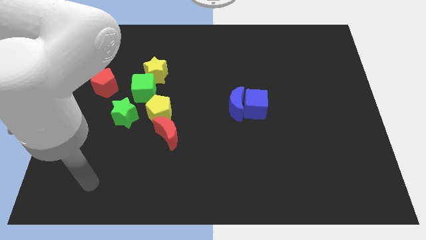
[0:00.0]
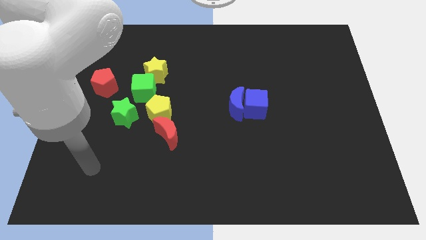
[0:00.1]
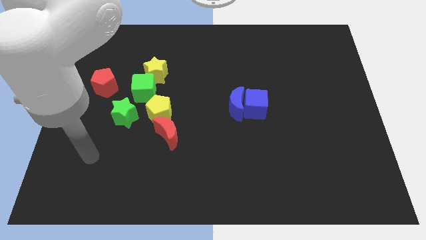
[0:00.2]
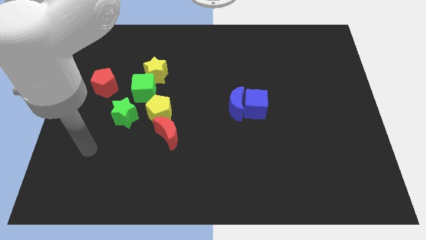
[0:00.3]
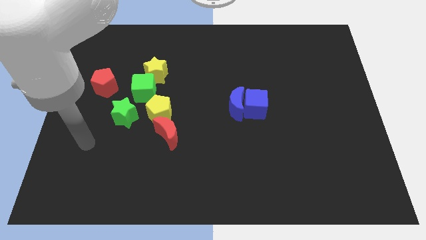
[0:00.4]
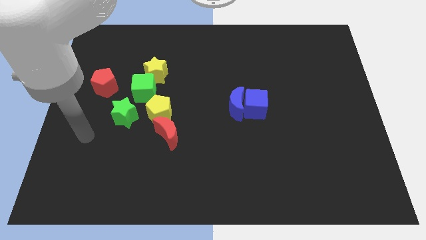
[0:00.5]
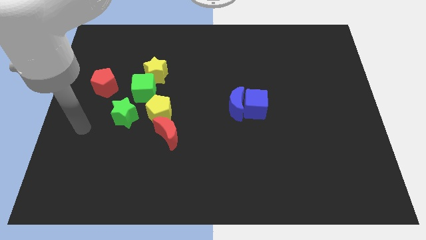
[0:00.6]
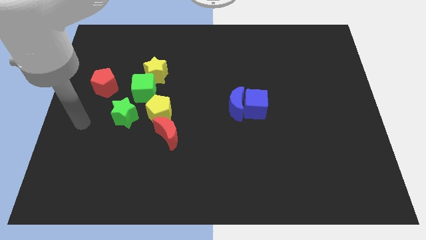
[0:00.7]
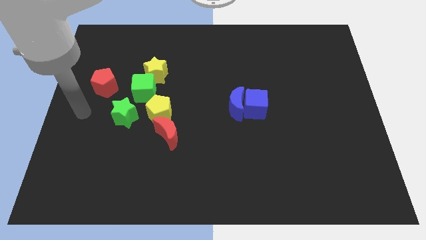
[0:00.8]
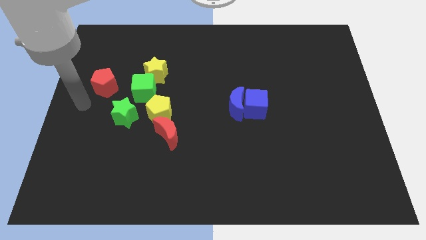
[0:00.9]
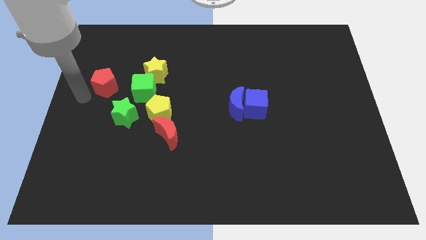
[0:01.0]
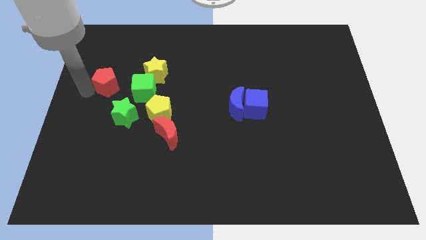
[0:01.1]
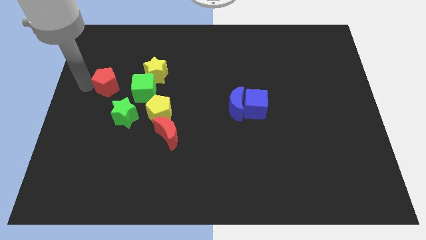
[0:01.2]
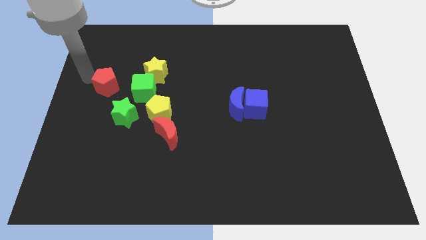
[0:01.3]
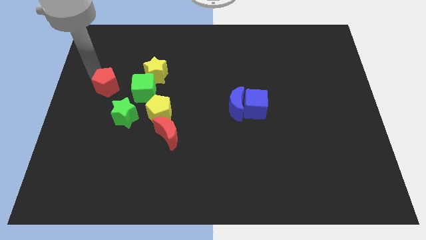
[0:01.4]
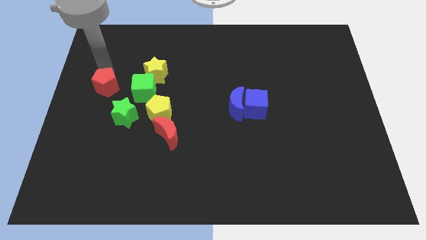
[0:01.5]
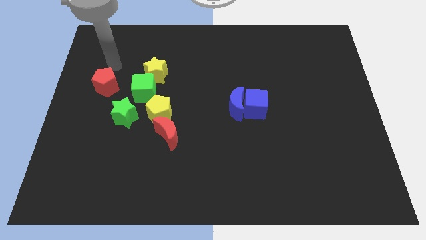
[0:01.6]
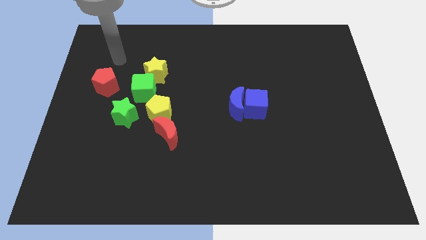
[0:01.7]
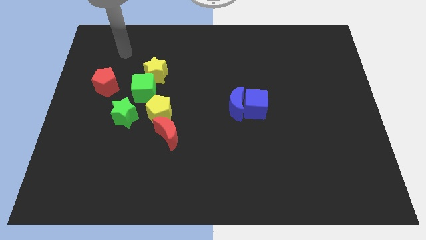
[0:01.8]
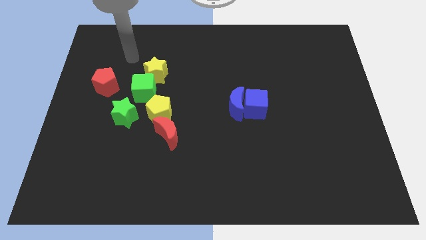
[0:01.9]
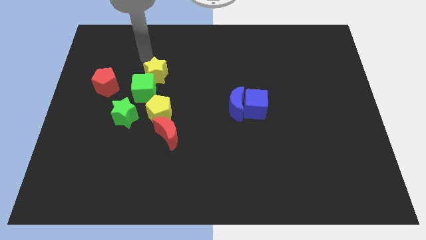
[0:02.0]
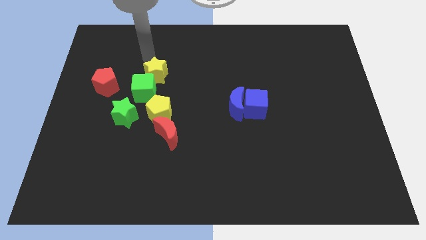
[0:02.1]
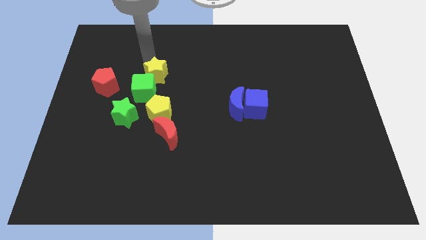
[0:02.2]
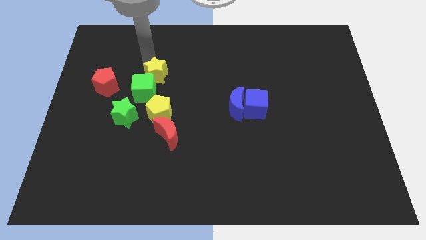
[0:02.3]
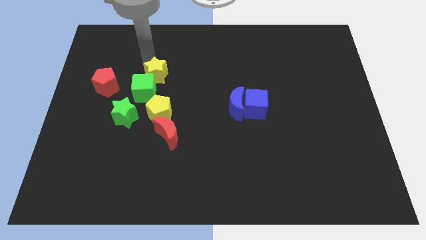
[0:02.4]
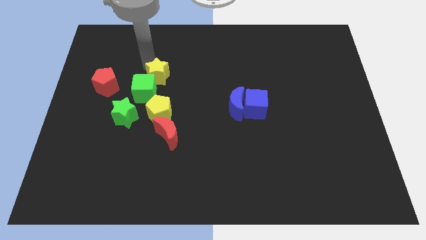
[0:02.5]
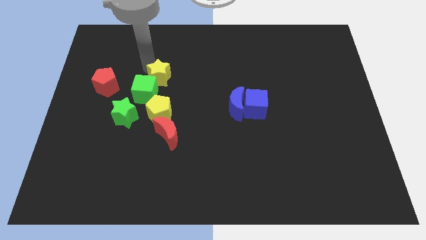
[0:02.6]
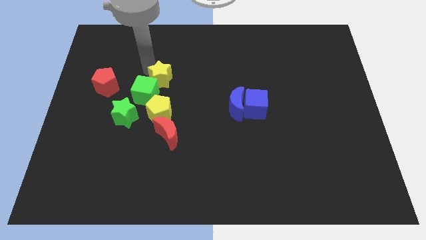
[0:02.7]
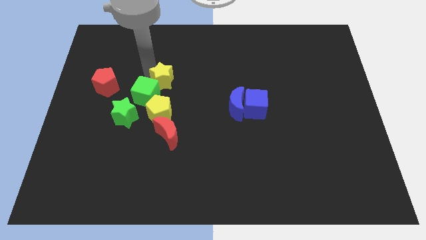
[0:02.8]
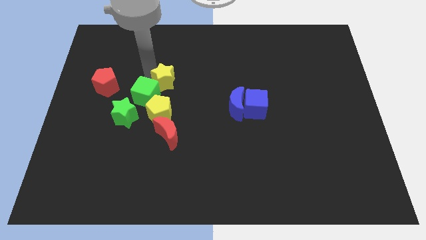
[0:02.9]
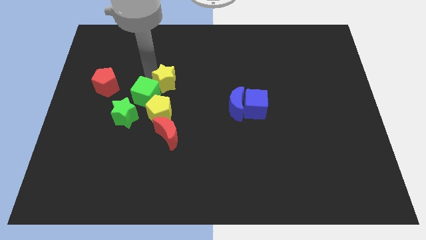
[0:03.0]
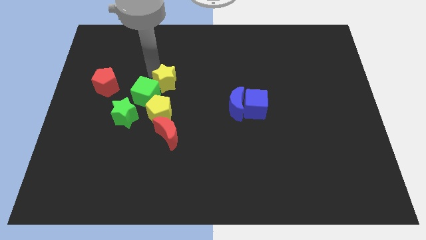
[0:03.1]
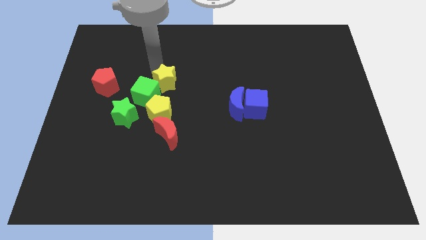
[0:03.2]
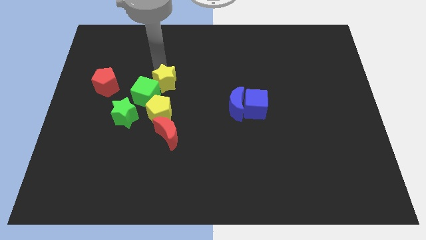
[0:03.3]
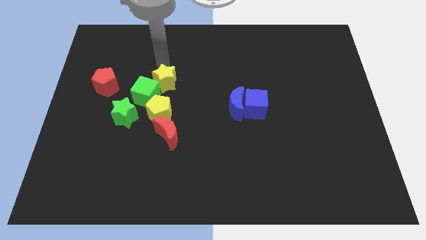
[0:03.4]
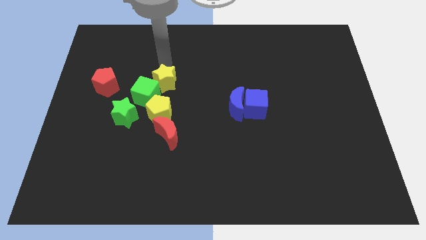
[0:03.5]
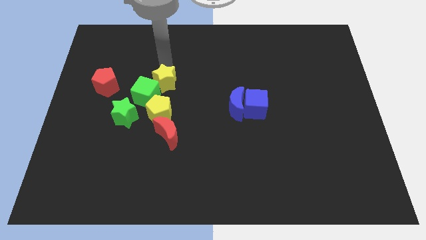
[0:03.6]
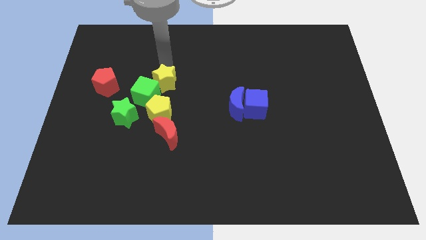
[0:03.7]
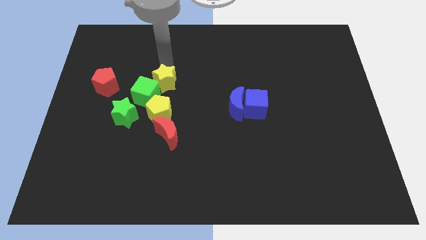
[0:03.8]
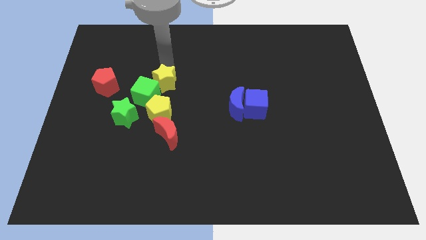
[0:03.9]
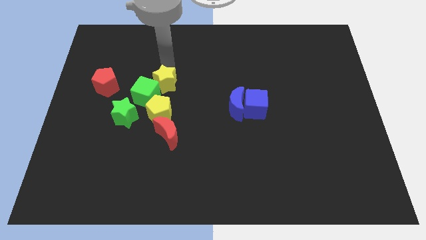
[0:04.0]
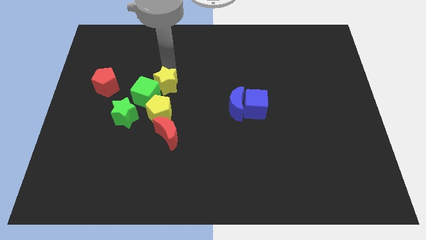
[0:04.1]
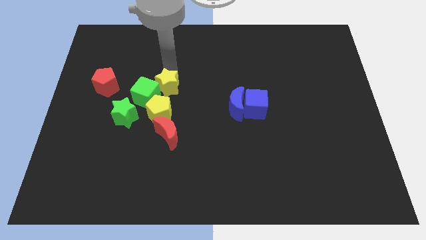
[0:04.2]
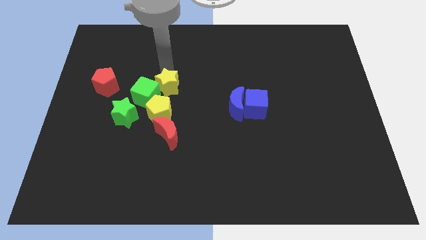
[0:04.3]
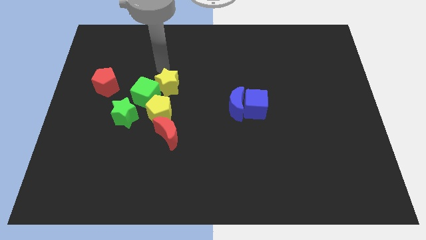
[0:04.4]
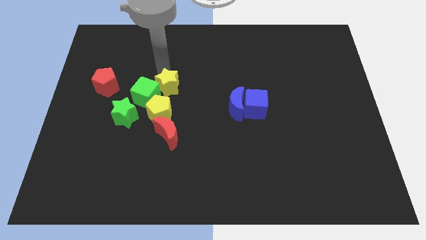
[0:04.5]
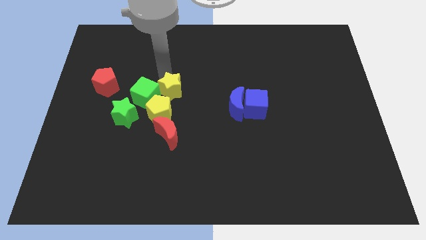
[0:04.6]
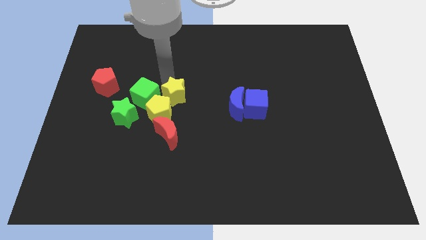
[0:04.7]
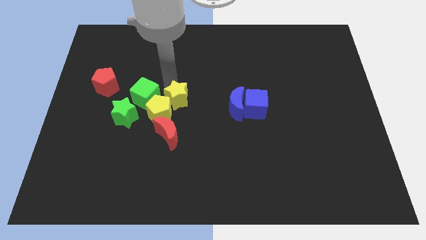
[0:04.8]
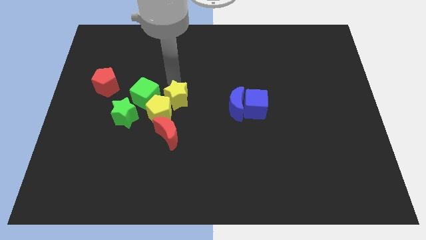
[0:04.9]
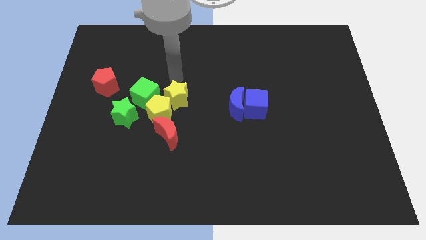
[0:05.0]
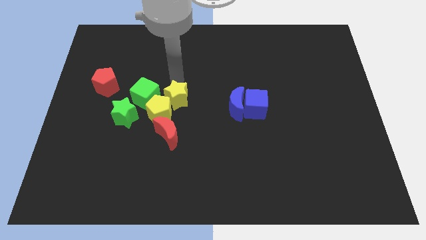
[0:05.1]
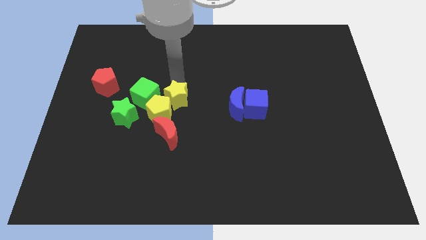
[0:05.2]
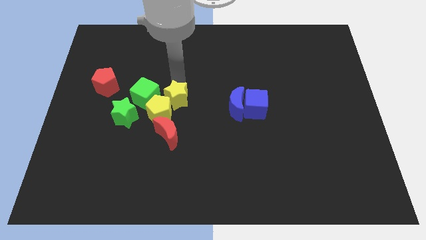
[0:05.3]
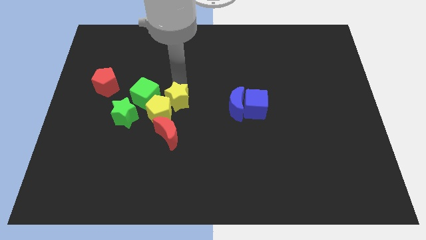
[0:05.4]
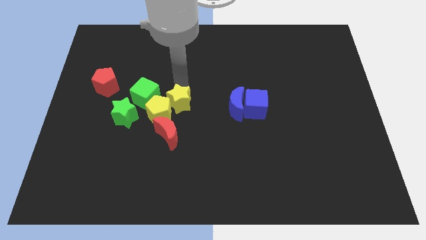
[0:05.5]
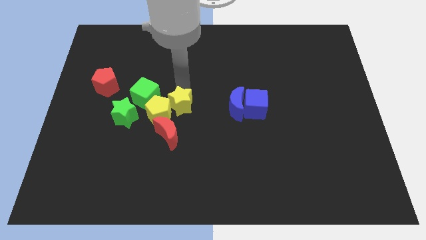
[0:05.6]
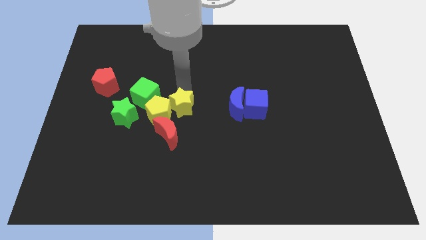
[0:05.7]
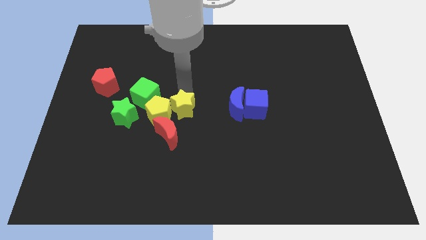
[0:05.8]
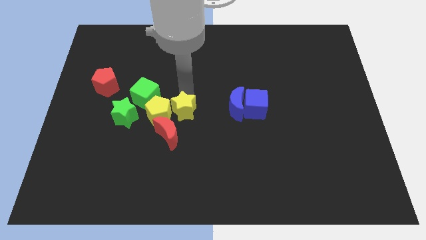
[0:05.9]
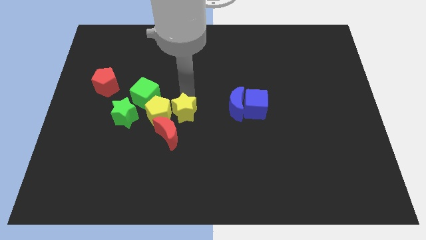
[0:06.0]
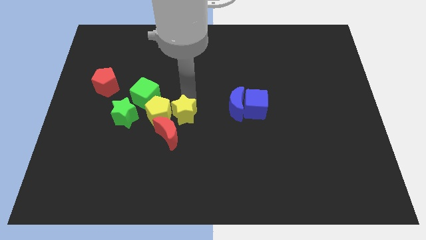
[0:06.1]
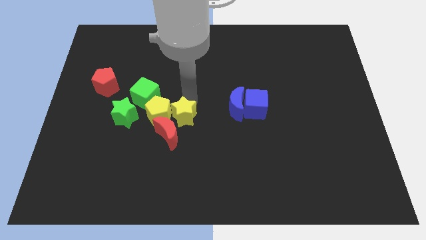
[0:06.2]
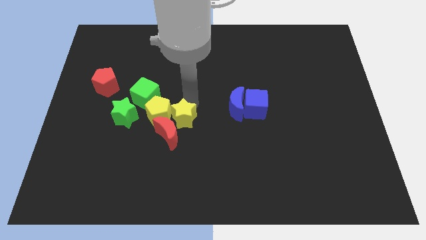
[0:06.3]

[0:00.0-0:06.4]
move the yellow star to the red moon
